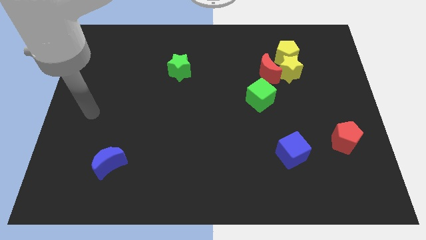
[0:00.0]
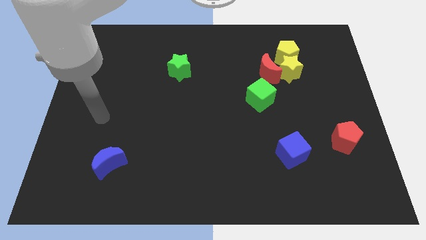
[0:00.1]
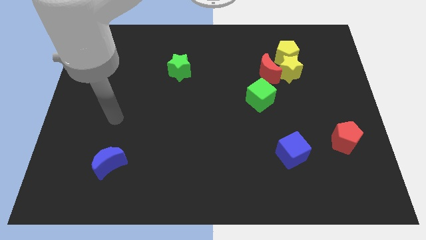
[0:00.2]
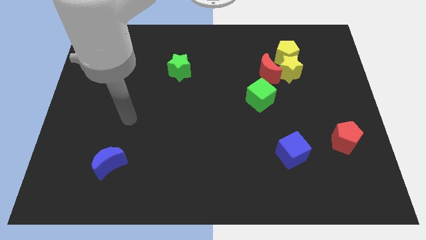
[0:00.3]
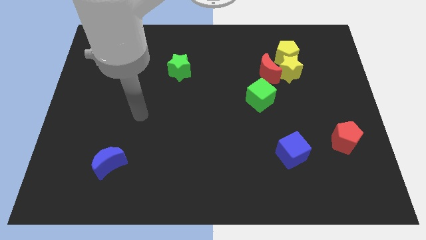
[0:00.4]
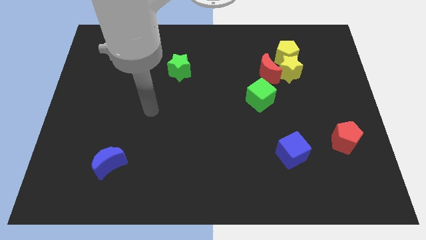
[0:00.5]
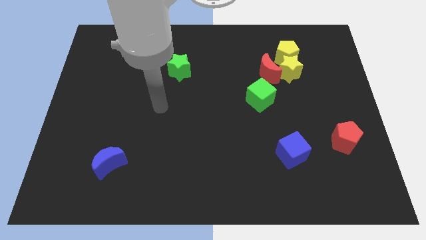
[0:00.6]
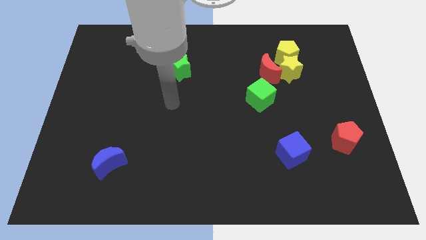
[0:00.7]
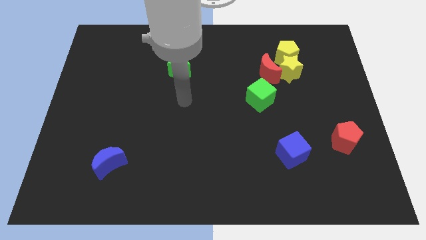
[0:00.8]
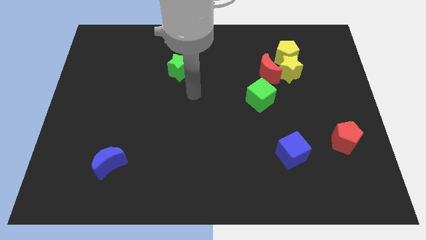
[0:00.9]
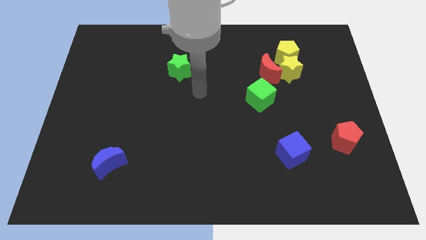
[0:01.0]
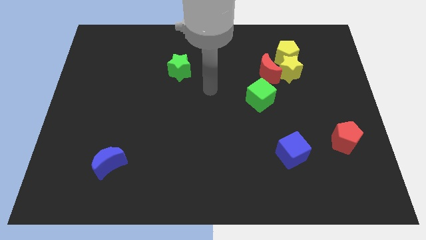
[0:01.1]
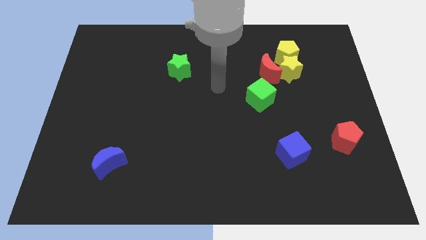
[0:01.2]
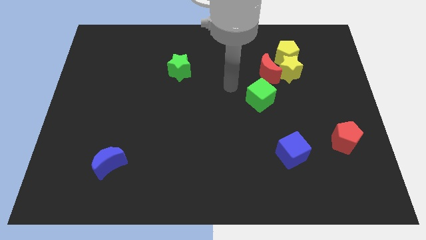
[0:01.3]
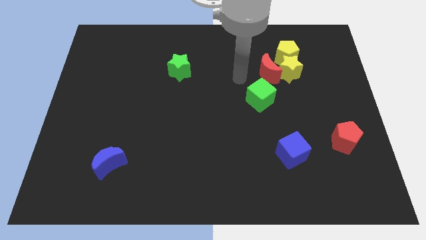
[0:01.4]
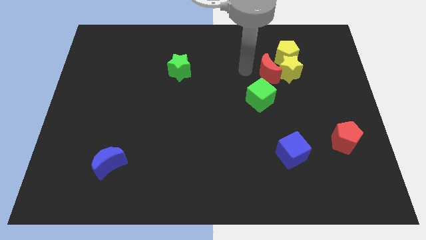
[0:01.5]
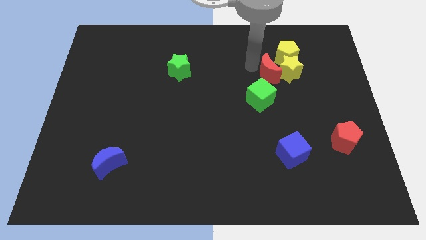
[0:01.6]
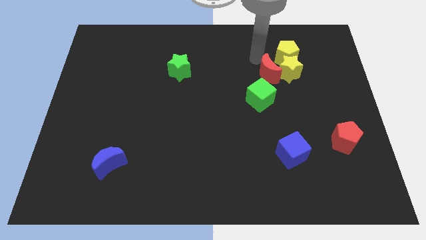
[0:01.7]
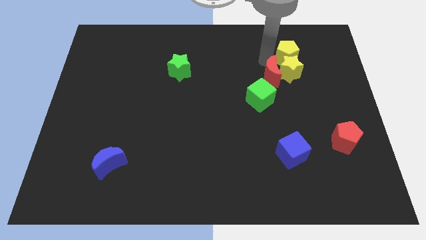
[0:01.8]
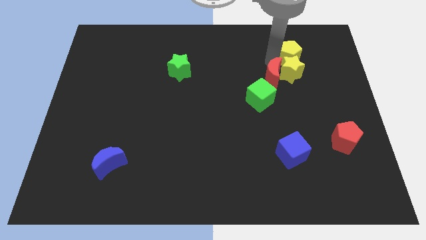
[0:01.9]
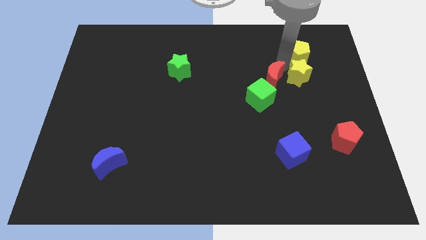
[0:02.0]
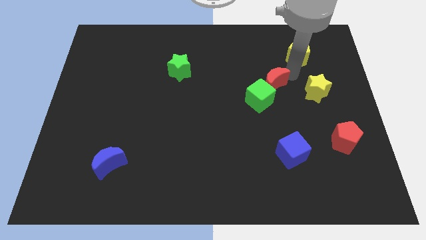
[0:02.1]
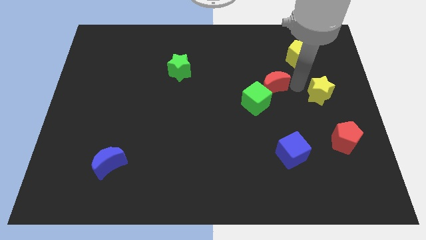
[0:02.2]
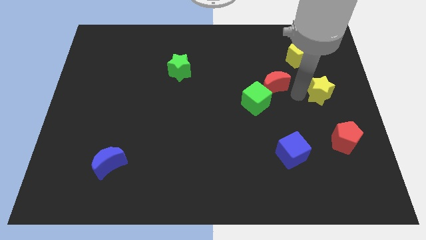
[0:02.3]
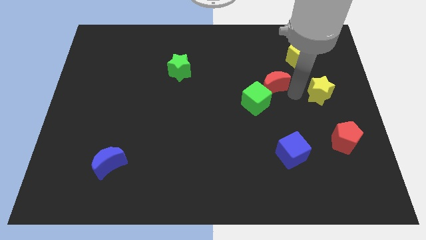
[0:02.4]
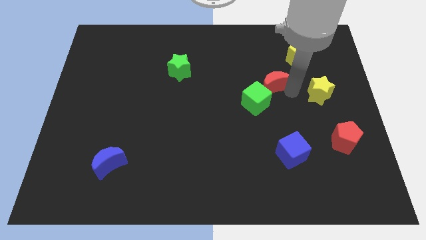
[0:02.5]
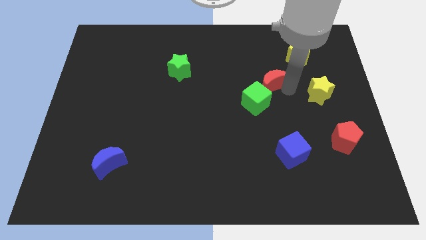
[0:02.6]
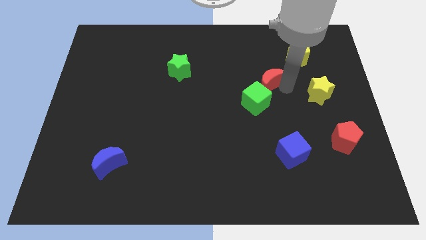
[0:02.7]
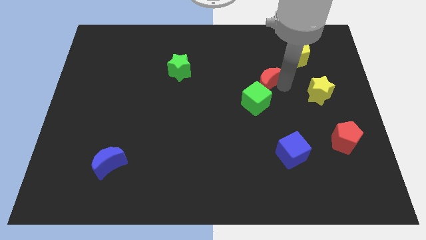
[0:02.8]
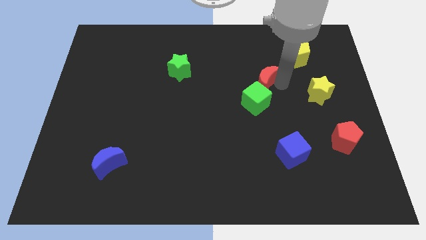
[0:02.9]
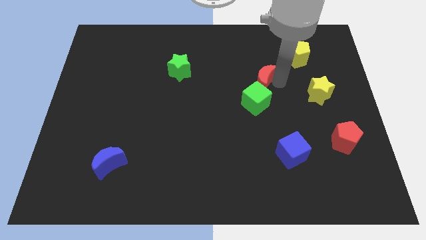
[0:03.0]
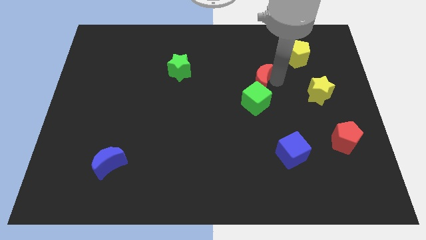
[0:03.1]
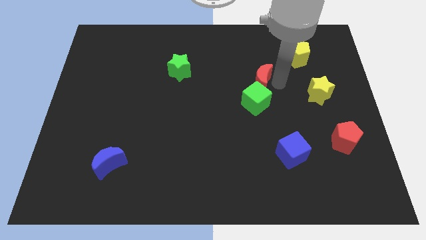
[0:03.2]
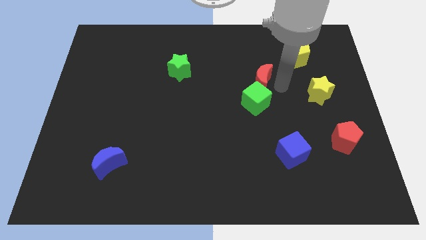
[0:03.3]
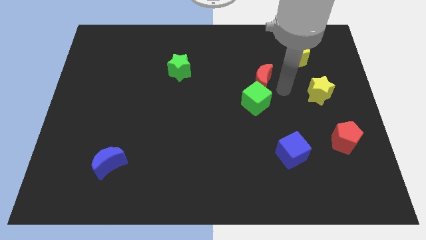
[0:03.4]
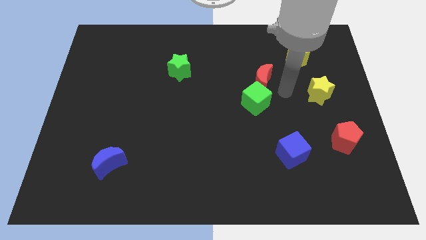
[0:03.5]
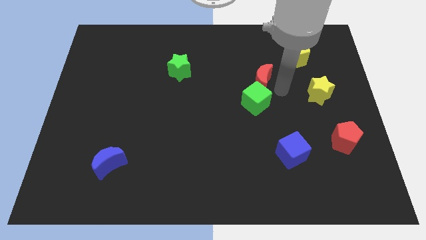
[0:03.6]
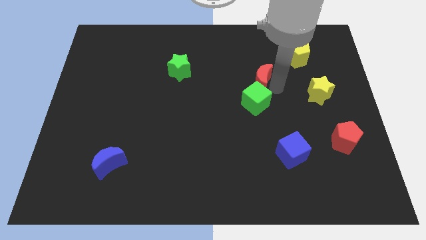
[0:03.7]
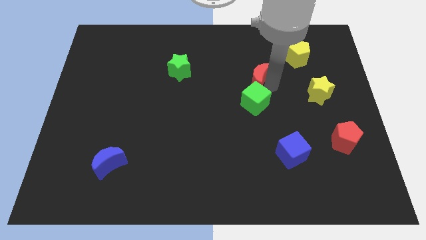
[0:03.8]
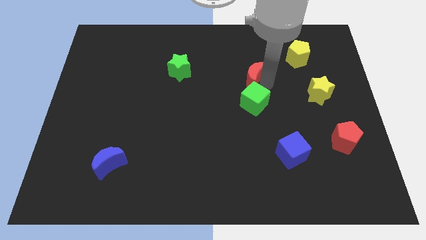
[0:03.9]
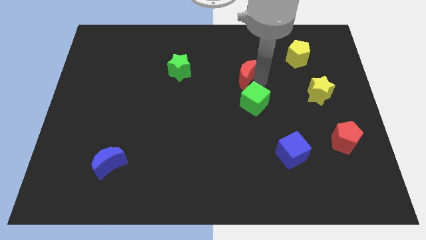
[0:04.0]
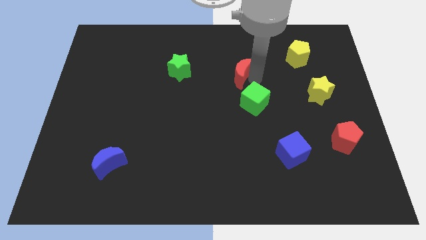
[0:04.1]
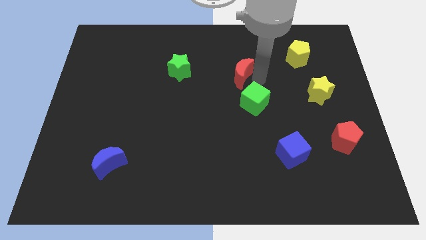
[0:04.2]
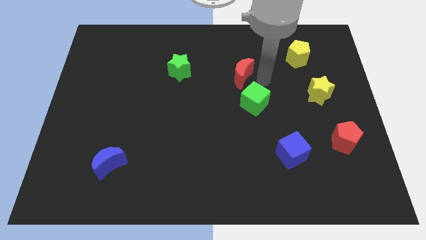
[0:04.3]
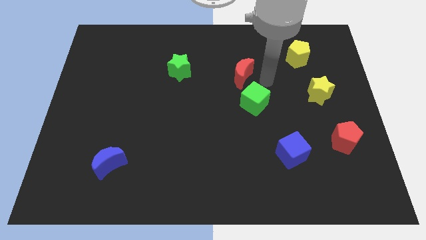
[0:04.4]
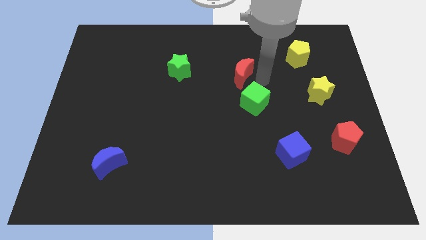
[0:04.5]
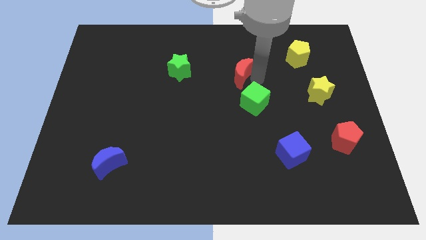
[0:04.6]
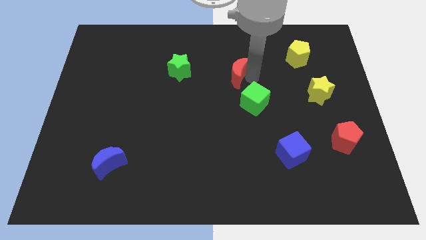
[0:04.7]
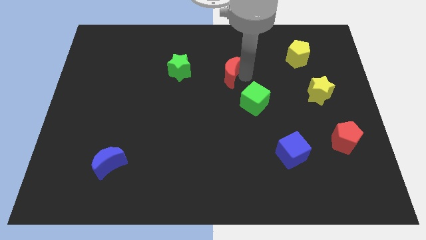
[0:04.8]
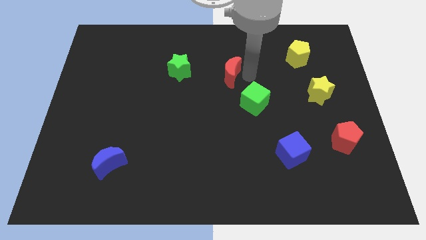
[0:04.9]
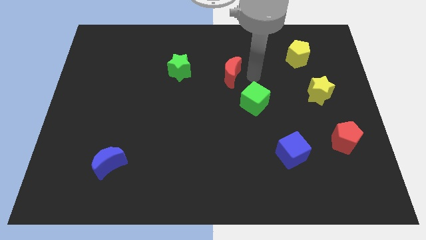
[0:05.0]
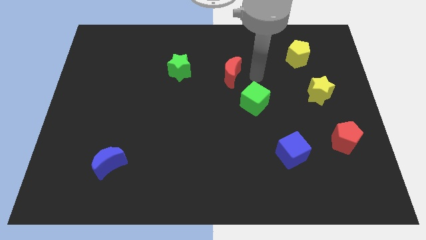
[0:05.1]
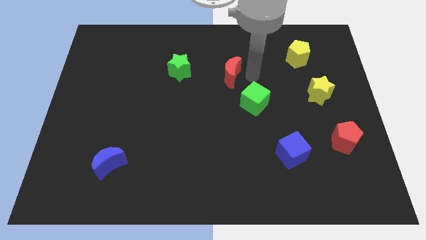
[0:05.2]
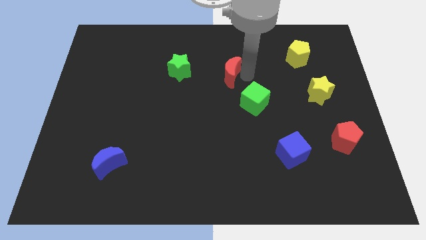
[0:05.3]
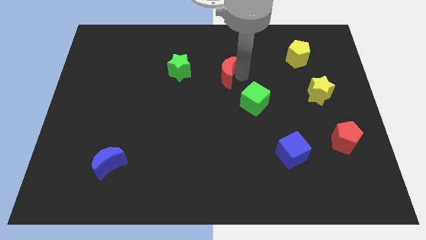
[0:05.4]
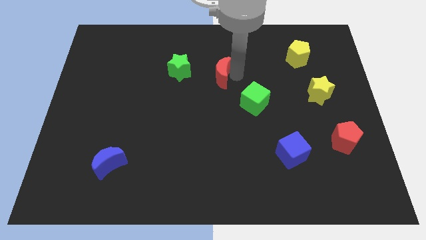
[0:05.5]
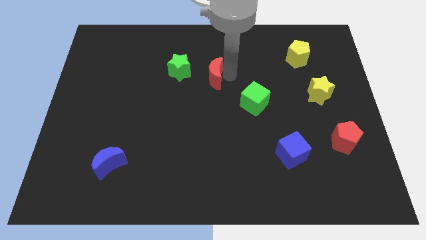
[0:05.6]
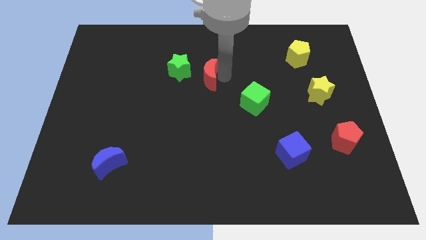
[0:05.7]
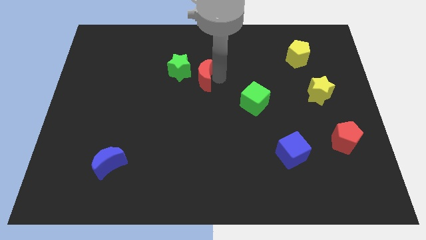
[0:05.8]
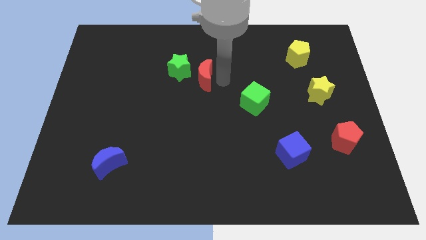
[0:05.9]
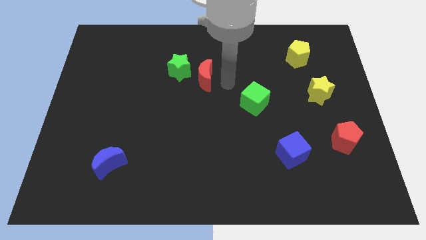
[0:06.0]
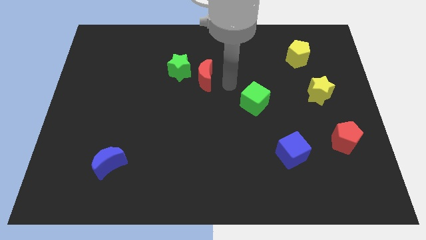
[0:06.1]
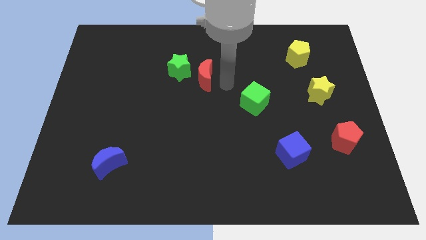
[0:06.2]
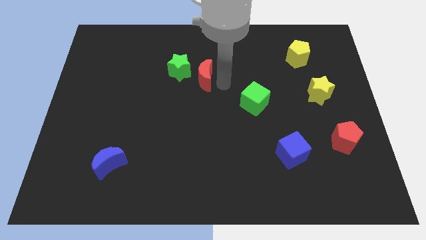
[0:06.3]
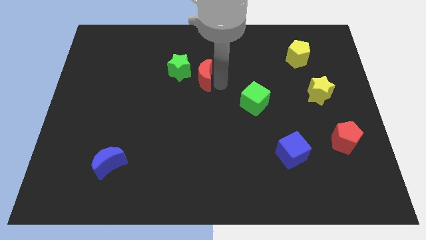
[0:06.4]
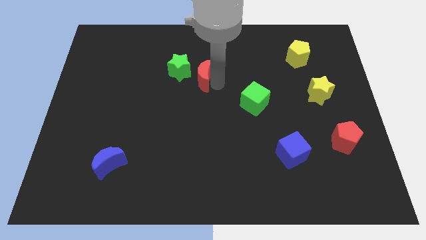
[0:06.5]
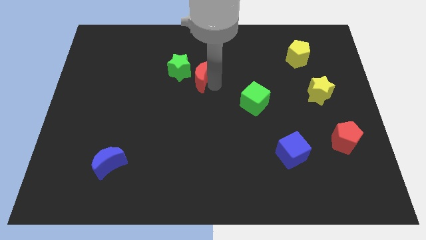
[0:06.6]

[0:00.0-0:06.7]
push the red moon next to the green star
